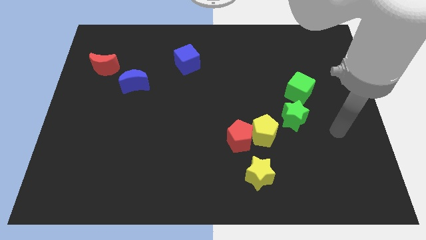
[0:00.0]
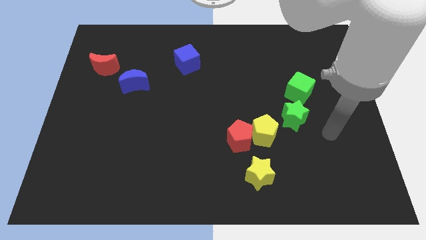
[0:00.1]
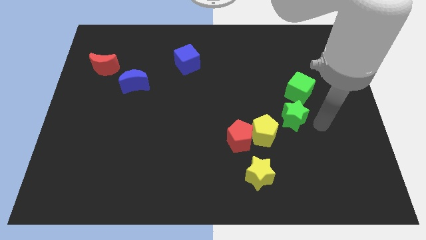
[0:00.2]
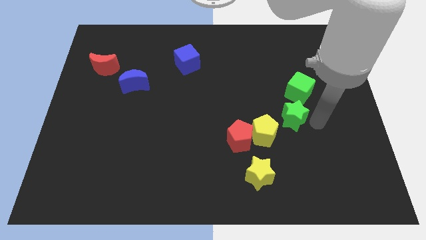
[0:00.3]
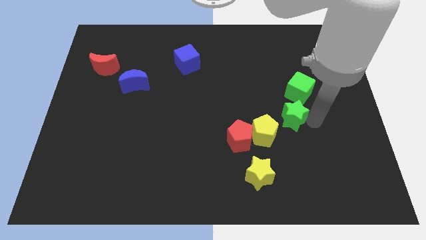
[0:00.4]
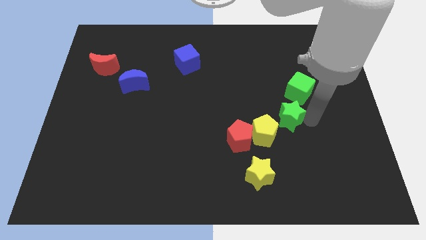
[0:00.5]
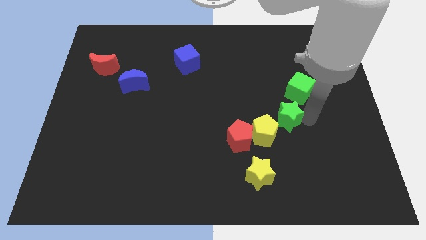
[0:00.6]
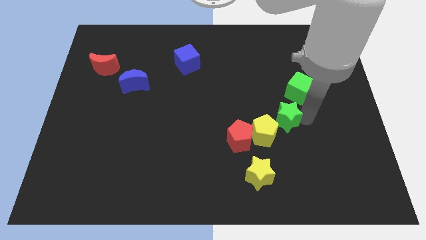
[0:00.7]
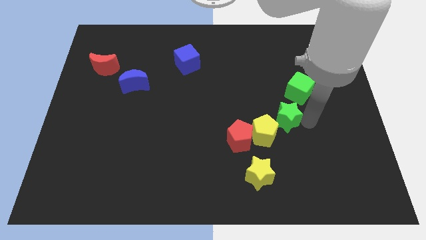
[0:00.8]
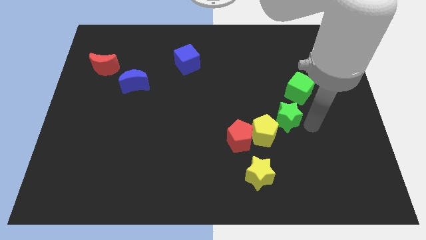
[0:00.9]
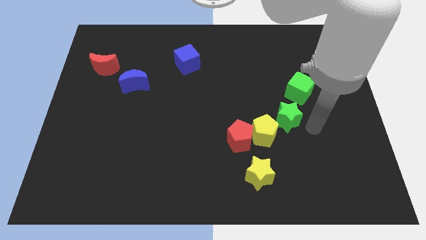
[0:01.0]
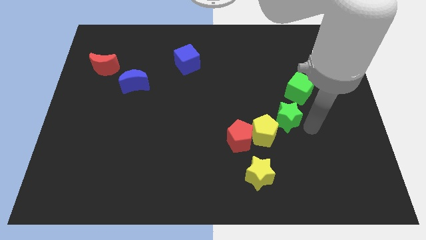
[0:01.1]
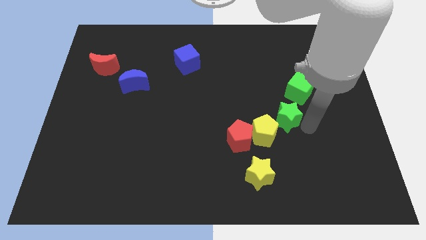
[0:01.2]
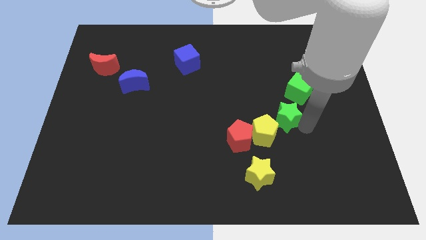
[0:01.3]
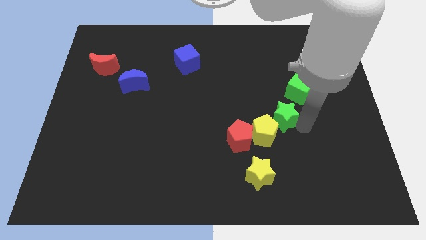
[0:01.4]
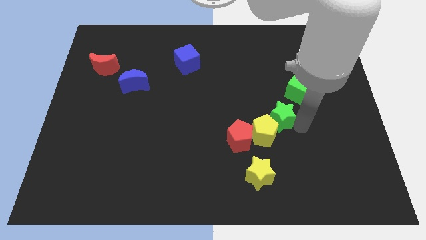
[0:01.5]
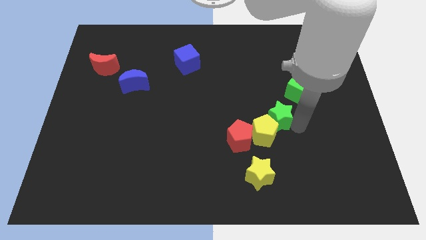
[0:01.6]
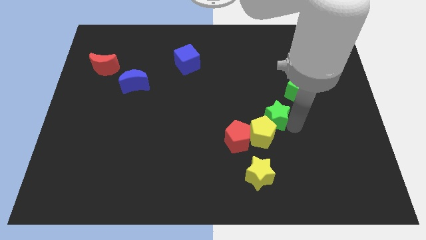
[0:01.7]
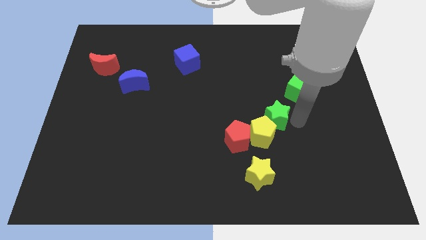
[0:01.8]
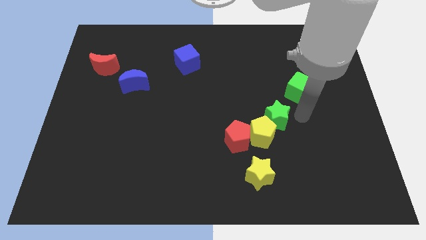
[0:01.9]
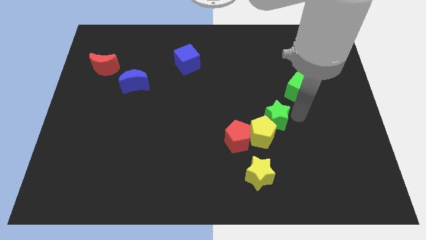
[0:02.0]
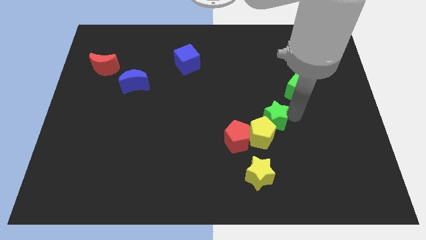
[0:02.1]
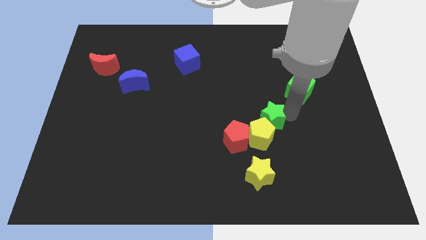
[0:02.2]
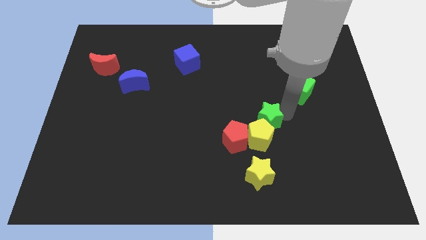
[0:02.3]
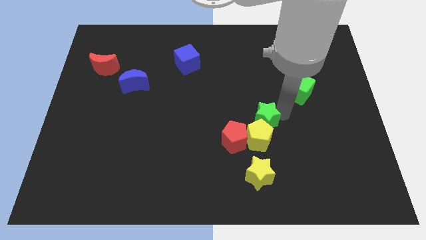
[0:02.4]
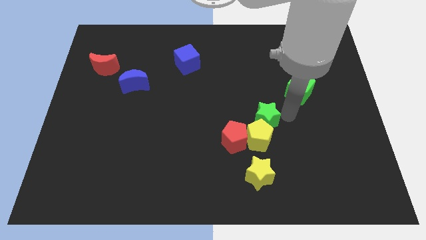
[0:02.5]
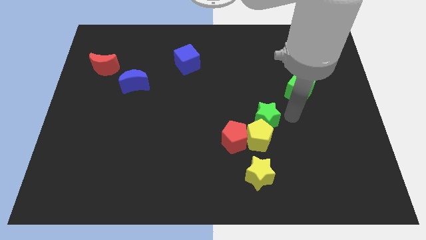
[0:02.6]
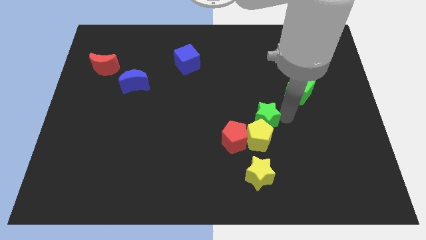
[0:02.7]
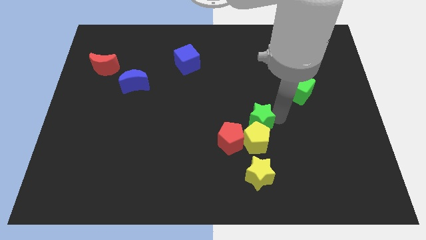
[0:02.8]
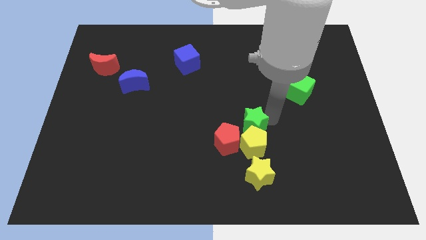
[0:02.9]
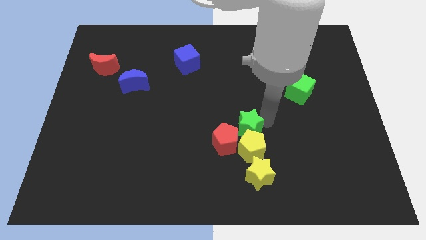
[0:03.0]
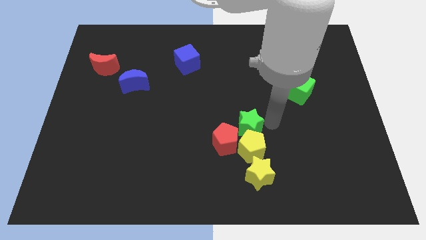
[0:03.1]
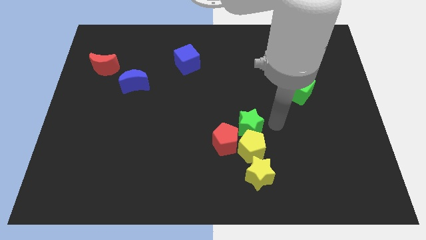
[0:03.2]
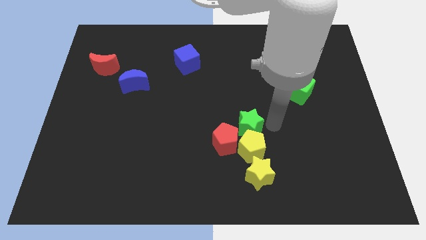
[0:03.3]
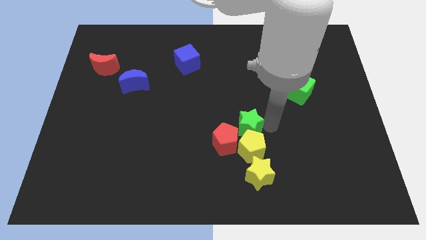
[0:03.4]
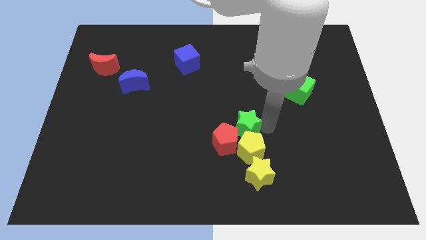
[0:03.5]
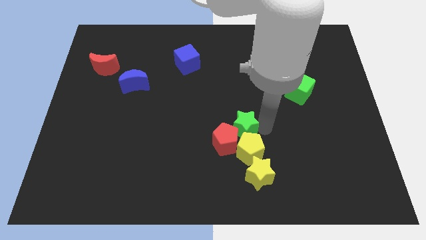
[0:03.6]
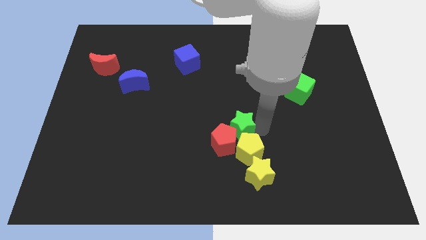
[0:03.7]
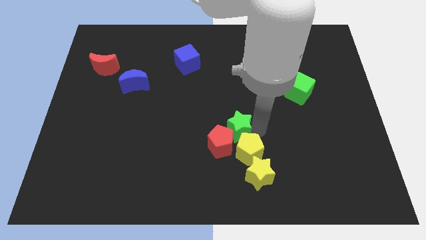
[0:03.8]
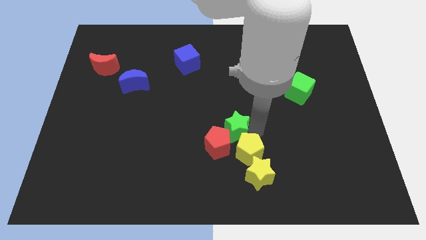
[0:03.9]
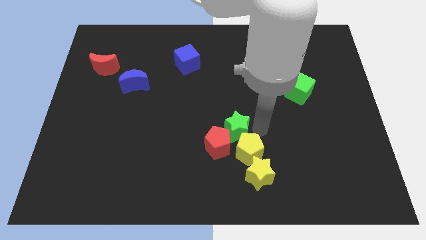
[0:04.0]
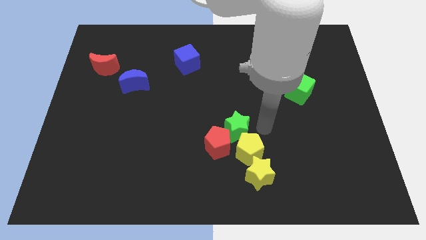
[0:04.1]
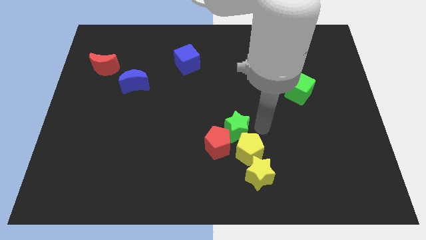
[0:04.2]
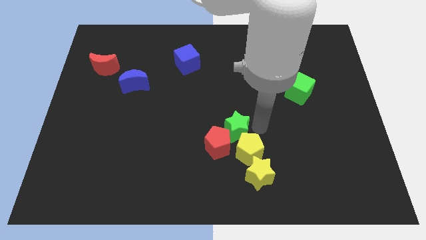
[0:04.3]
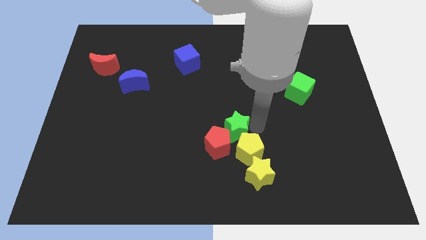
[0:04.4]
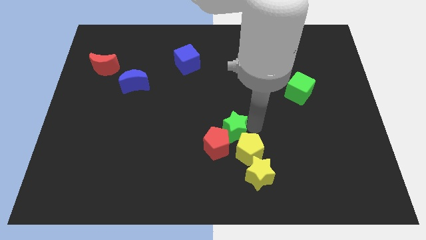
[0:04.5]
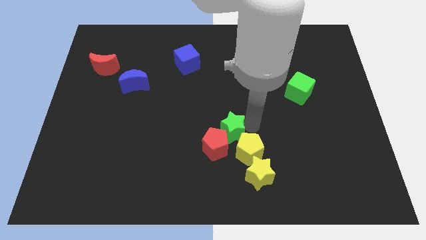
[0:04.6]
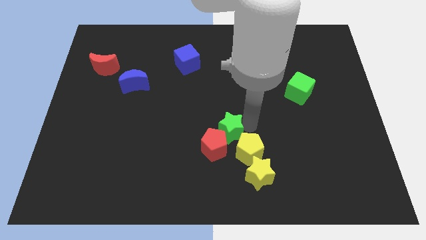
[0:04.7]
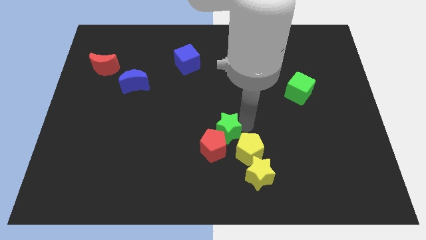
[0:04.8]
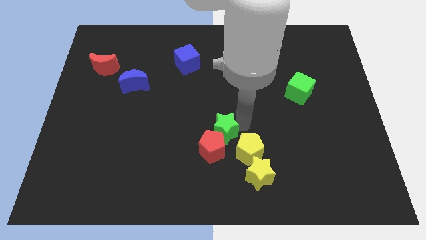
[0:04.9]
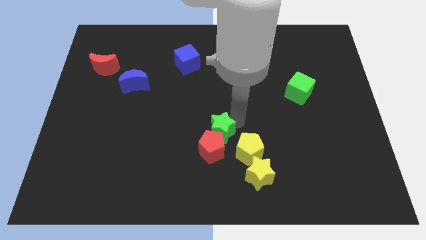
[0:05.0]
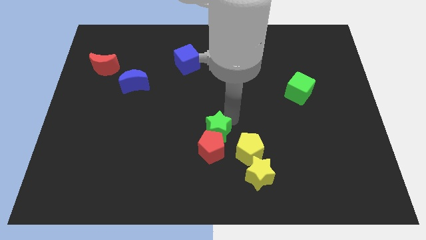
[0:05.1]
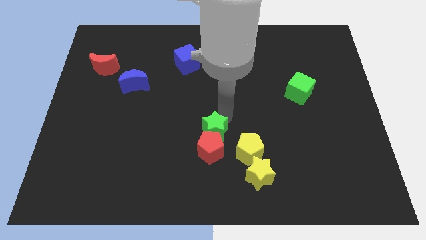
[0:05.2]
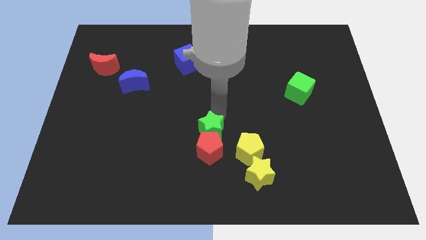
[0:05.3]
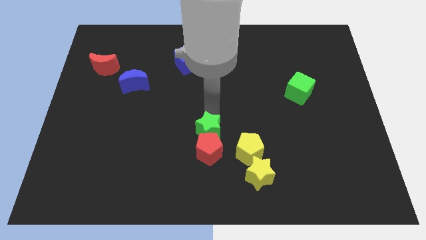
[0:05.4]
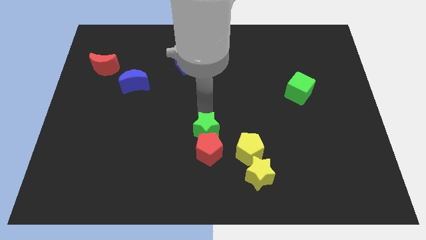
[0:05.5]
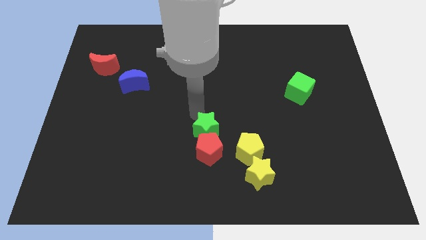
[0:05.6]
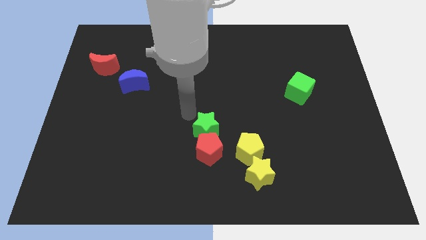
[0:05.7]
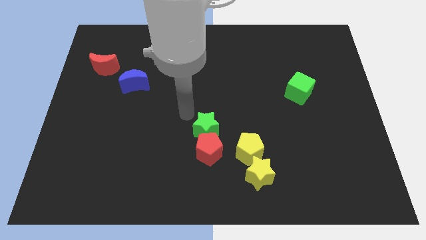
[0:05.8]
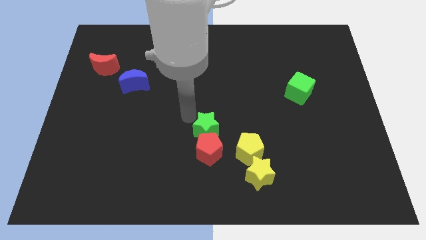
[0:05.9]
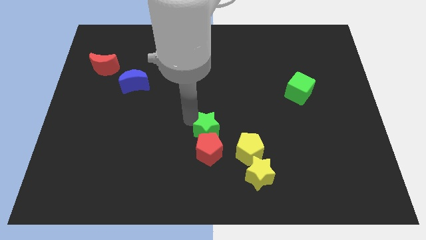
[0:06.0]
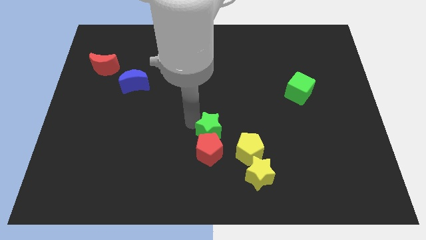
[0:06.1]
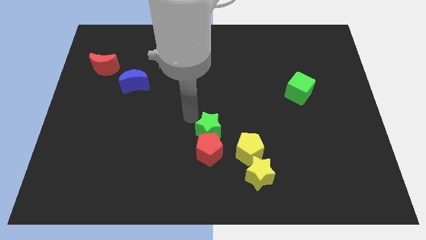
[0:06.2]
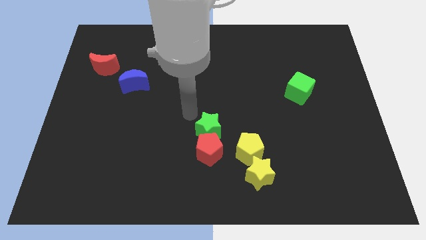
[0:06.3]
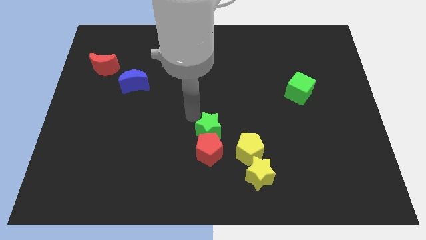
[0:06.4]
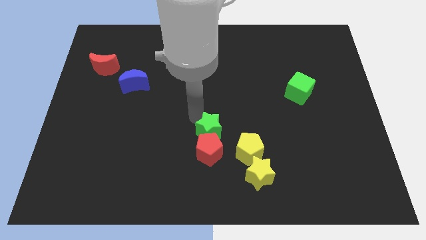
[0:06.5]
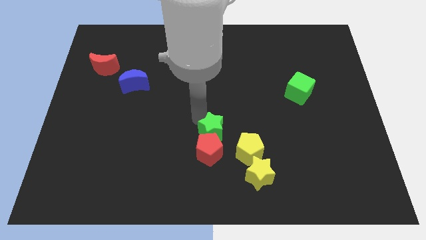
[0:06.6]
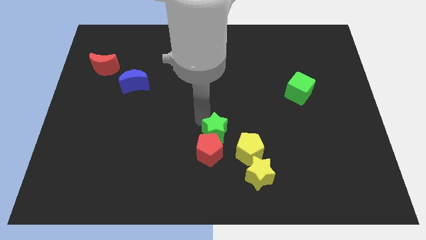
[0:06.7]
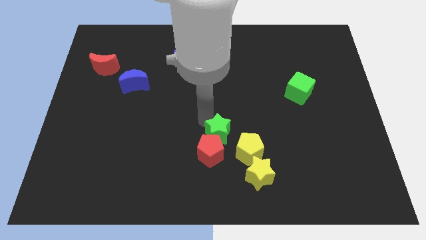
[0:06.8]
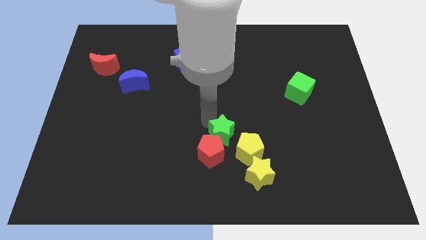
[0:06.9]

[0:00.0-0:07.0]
push the green star to the top left side of the yellow star

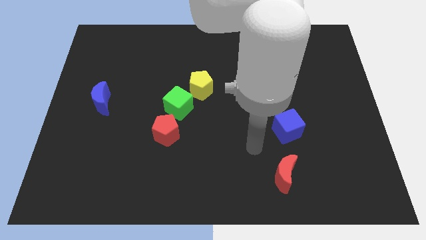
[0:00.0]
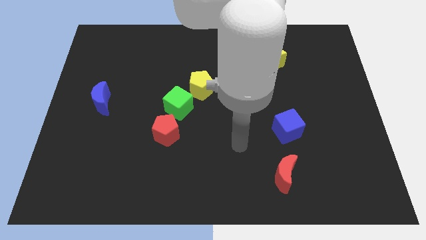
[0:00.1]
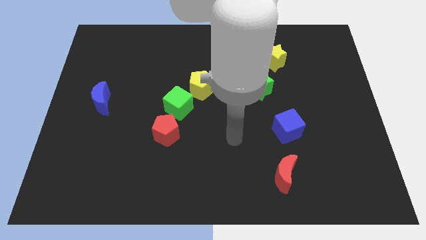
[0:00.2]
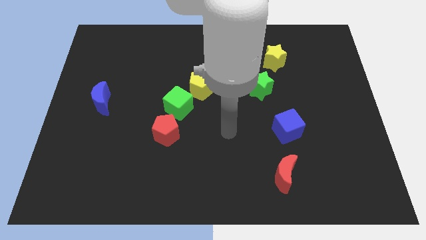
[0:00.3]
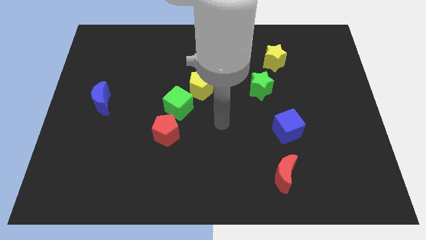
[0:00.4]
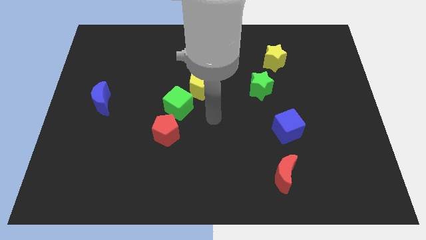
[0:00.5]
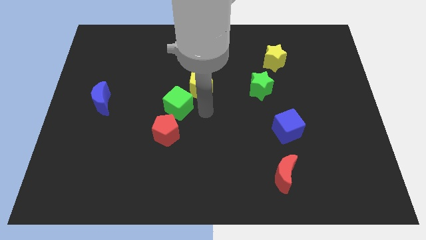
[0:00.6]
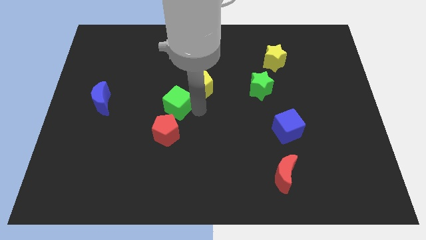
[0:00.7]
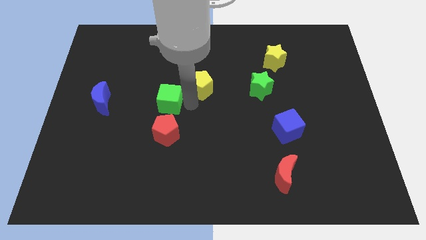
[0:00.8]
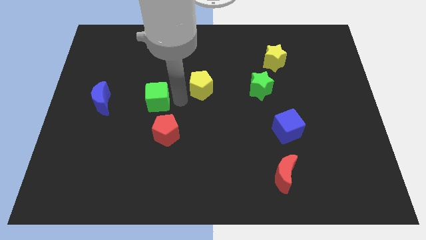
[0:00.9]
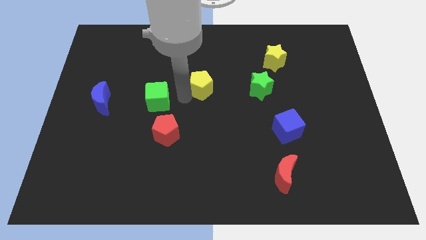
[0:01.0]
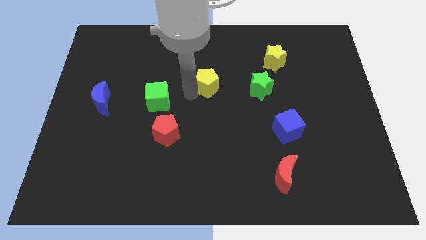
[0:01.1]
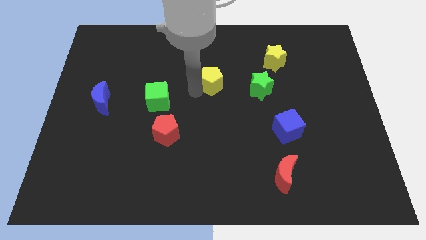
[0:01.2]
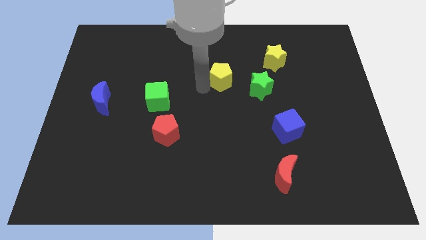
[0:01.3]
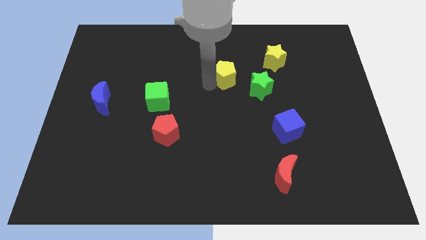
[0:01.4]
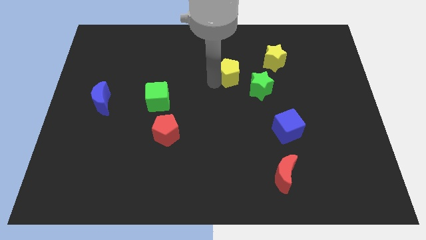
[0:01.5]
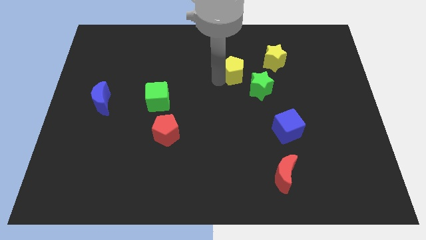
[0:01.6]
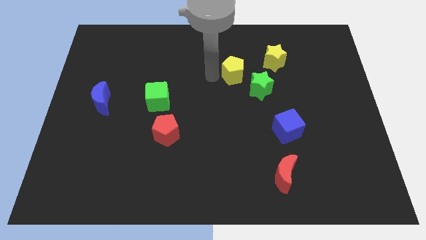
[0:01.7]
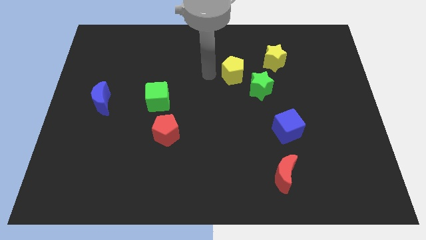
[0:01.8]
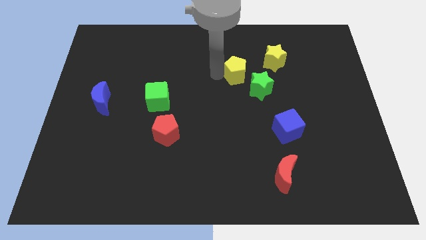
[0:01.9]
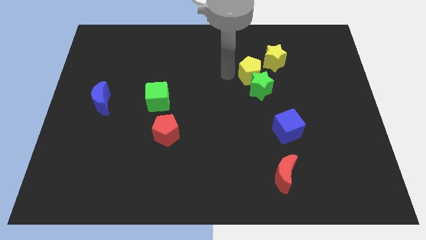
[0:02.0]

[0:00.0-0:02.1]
slide the yellow pentagon to the top right of the green star
